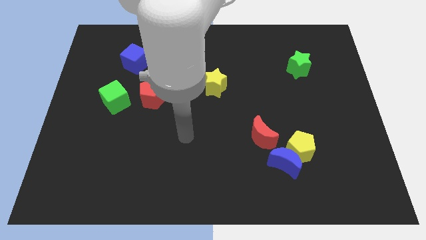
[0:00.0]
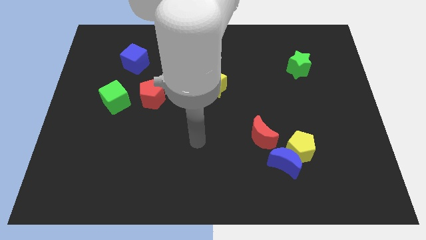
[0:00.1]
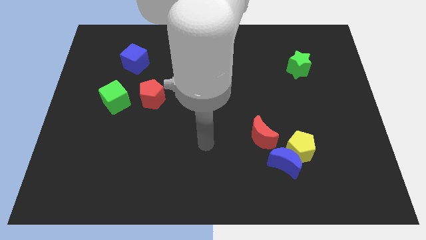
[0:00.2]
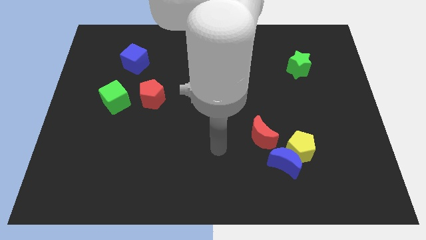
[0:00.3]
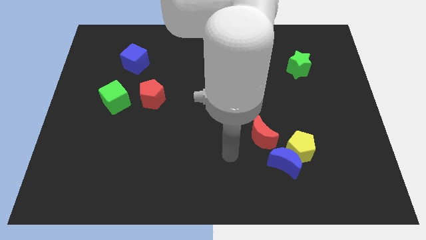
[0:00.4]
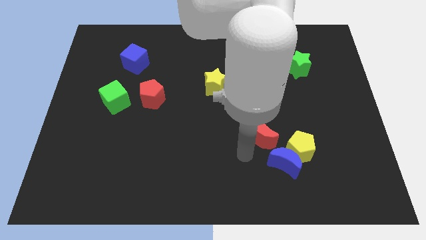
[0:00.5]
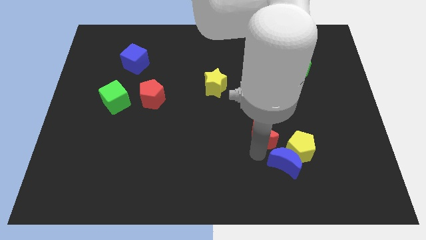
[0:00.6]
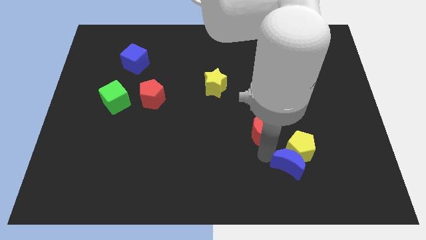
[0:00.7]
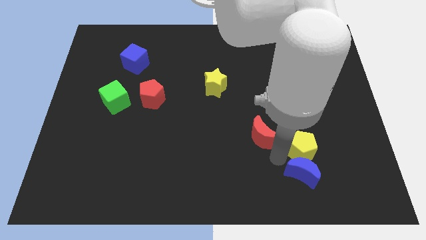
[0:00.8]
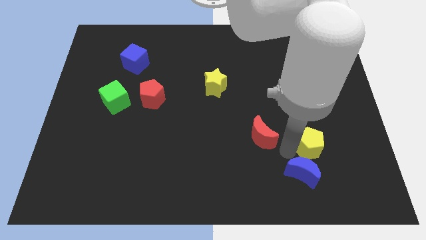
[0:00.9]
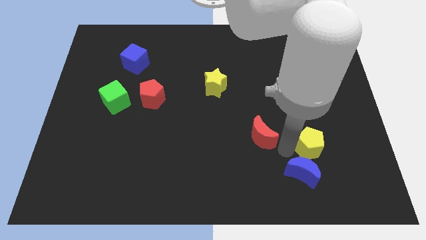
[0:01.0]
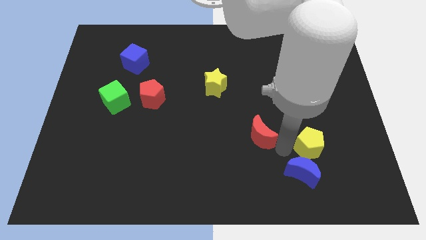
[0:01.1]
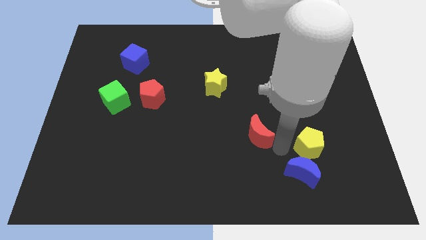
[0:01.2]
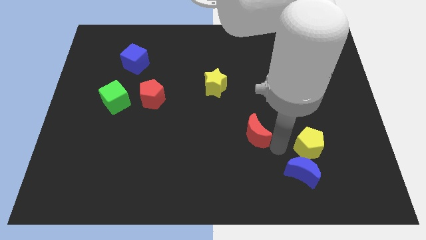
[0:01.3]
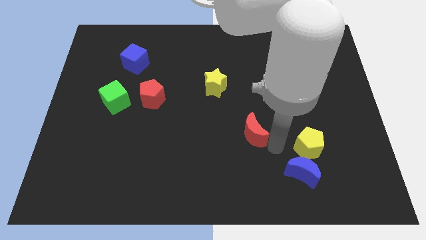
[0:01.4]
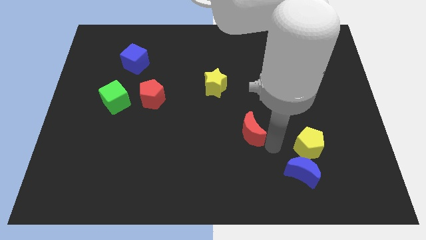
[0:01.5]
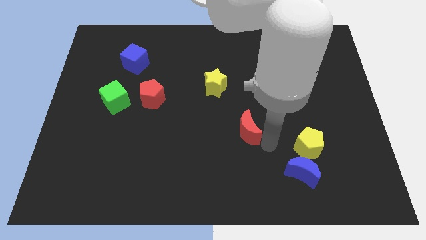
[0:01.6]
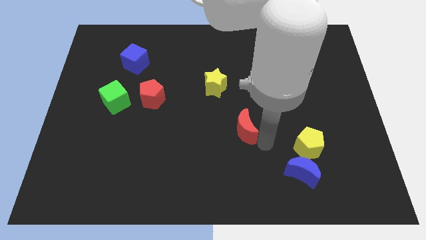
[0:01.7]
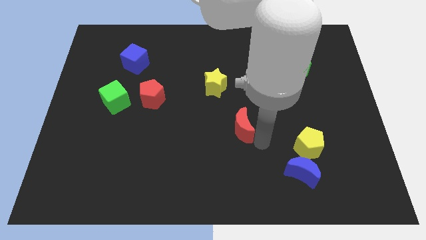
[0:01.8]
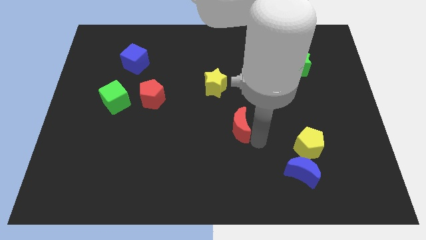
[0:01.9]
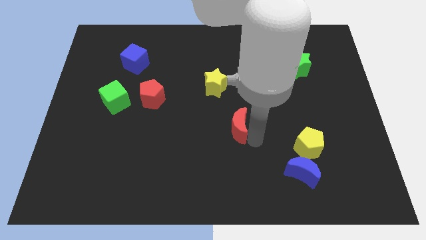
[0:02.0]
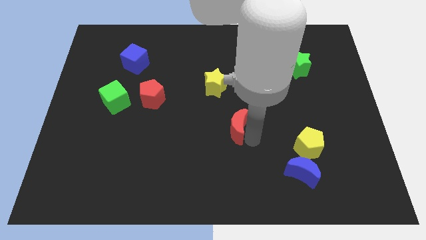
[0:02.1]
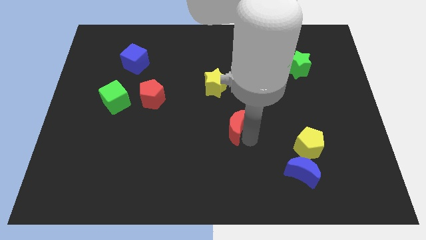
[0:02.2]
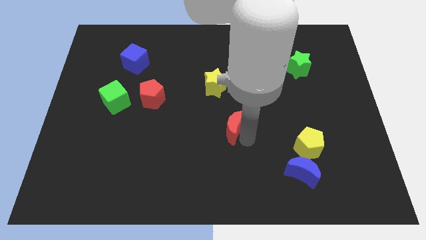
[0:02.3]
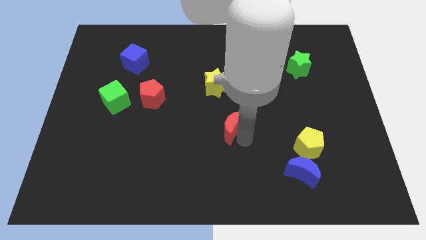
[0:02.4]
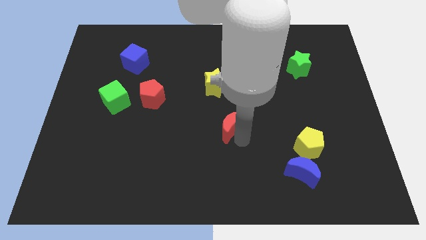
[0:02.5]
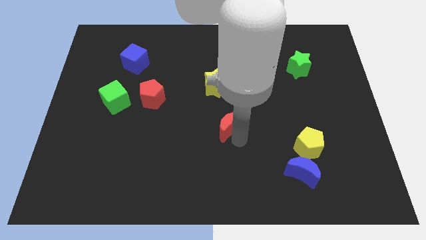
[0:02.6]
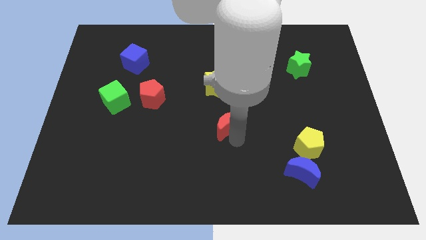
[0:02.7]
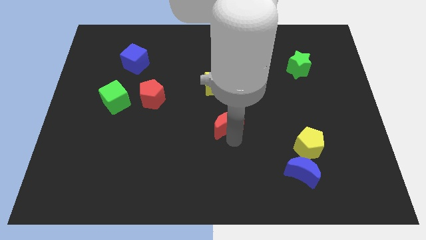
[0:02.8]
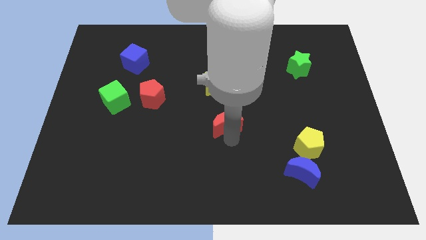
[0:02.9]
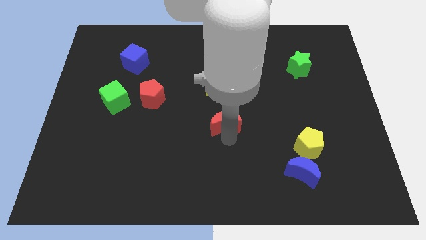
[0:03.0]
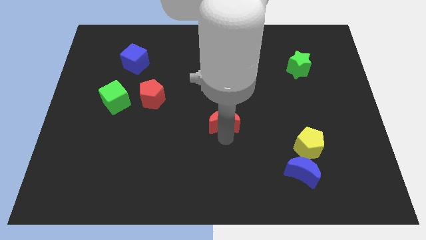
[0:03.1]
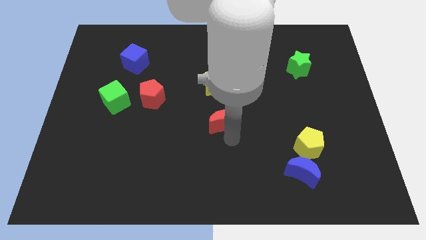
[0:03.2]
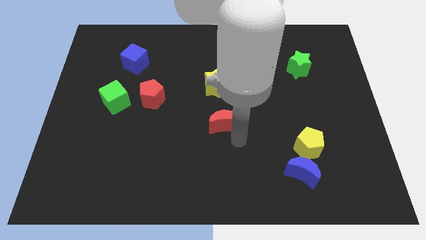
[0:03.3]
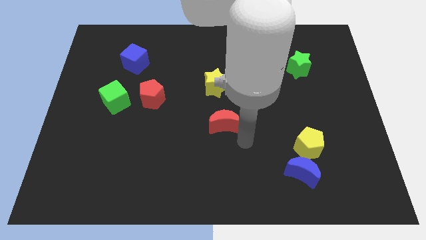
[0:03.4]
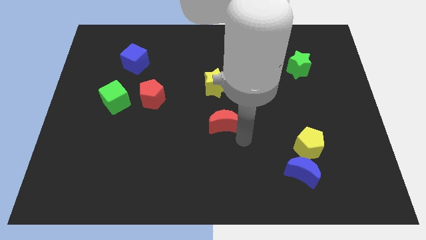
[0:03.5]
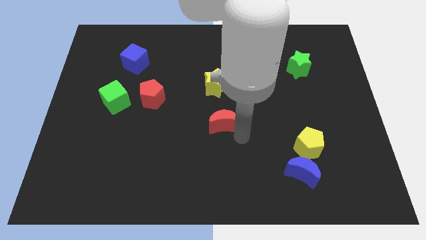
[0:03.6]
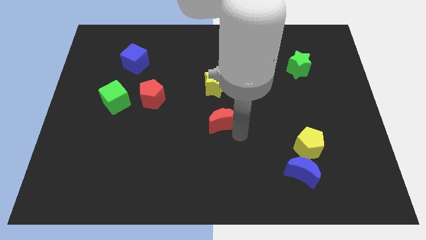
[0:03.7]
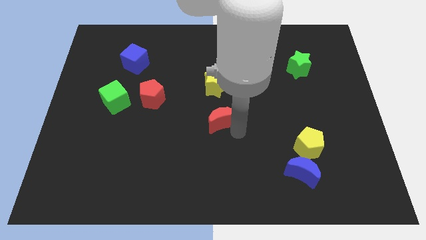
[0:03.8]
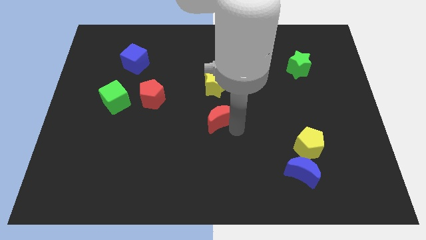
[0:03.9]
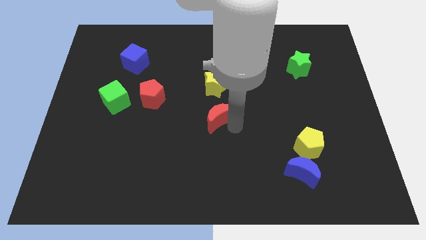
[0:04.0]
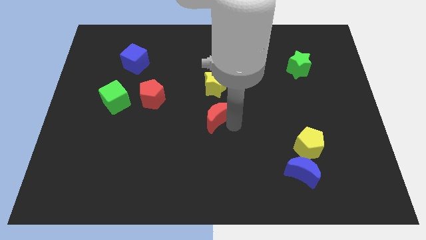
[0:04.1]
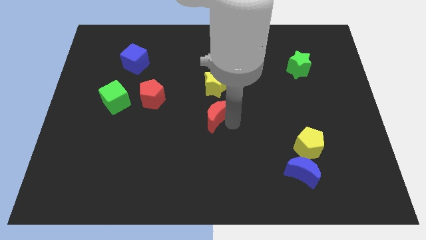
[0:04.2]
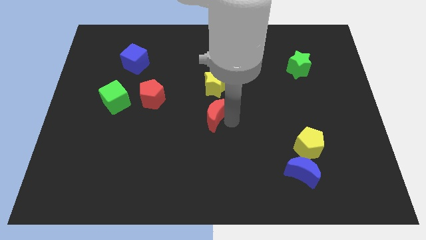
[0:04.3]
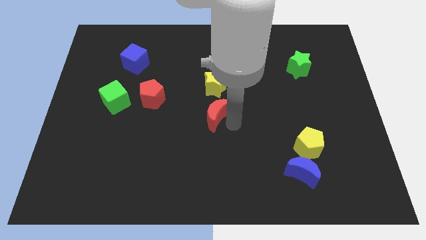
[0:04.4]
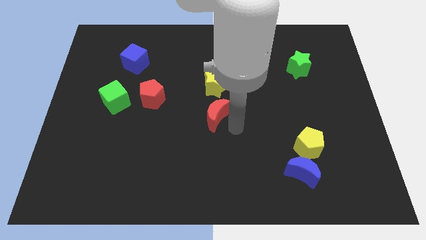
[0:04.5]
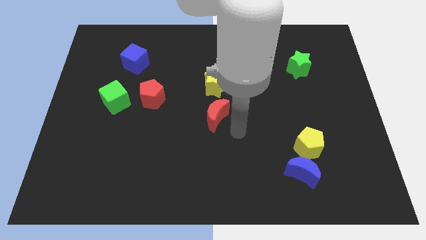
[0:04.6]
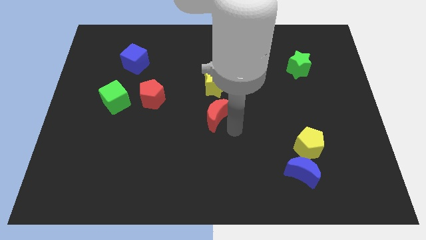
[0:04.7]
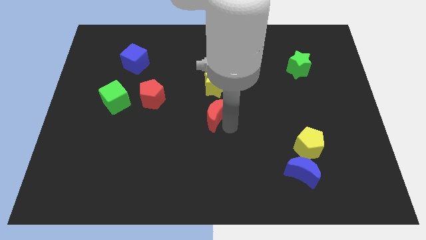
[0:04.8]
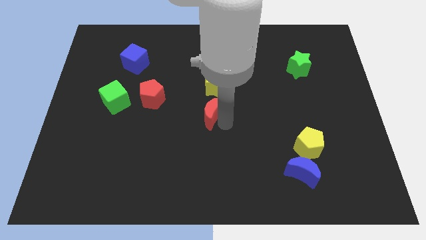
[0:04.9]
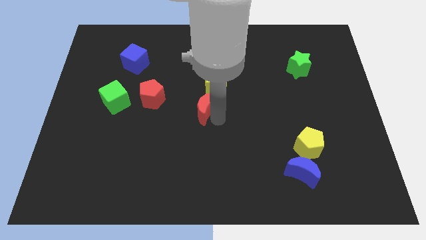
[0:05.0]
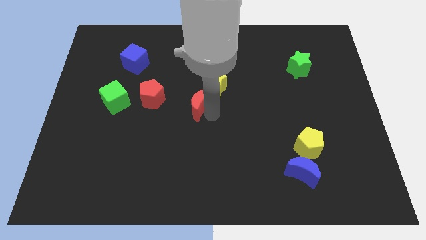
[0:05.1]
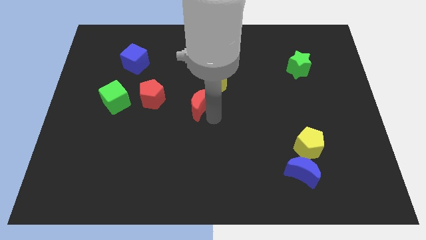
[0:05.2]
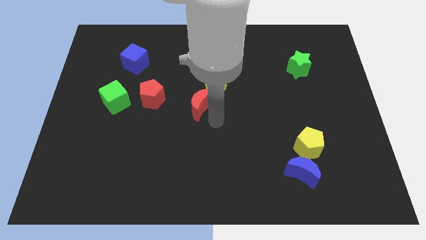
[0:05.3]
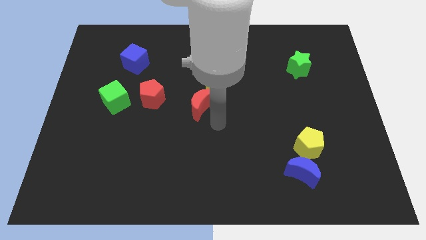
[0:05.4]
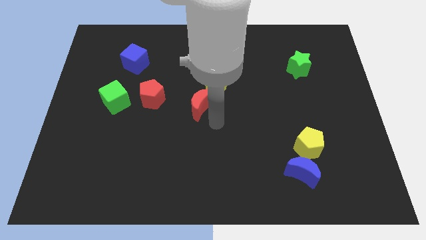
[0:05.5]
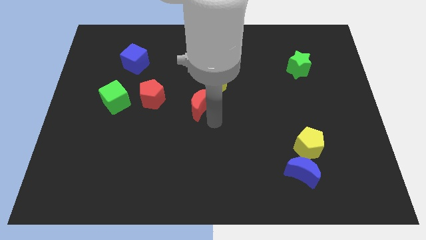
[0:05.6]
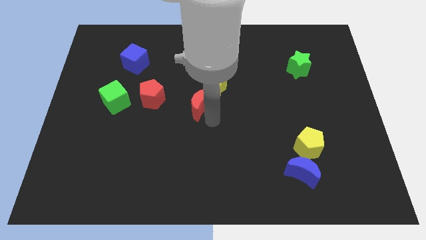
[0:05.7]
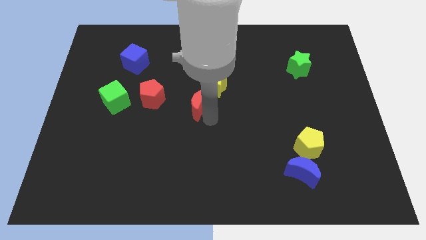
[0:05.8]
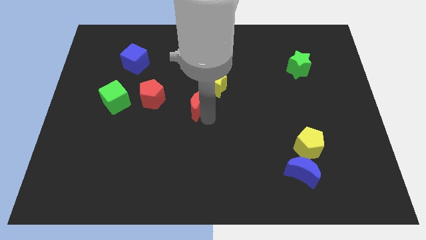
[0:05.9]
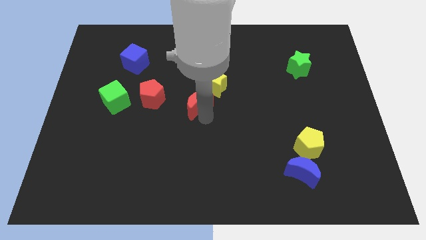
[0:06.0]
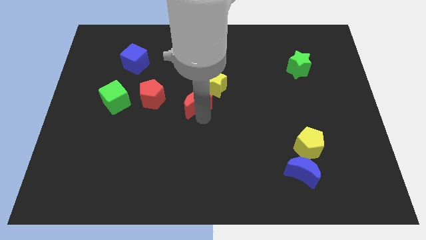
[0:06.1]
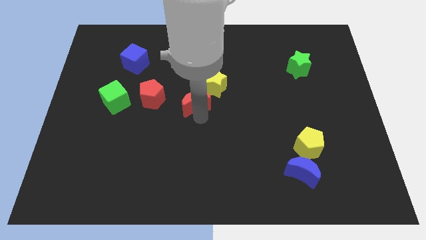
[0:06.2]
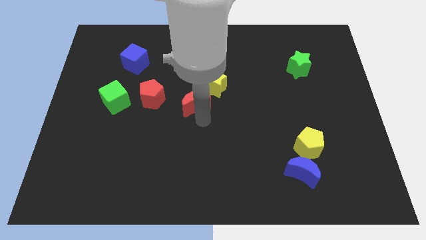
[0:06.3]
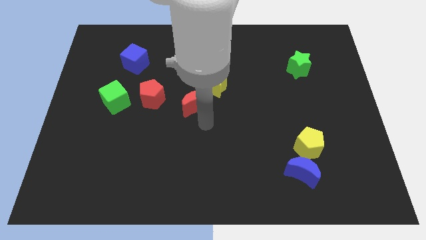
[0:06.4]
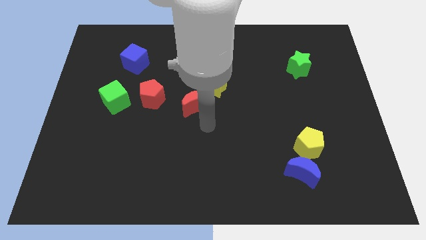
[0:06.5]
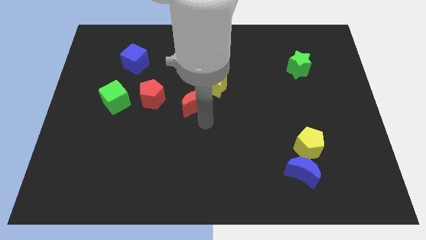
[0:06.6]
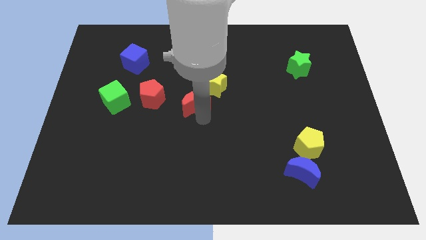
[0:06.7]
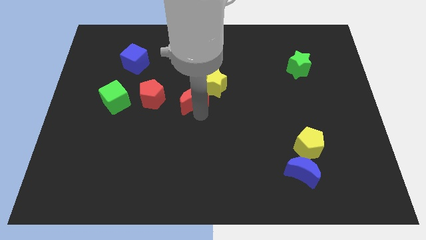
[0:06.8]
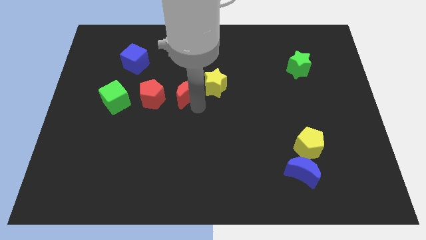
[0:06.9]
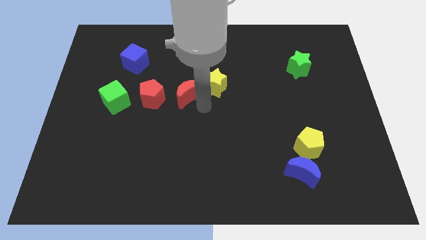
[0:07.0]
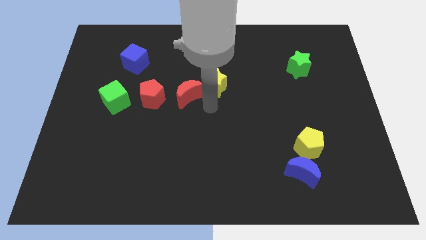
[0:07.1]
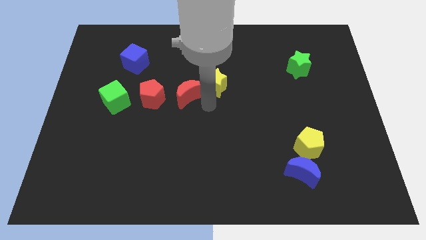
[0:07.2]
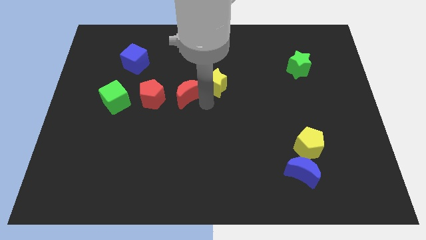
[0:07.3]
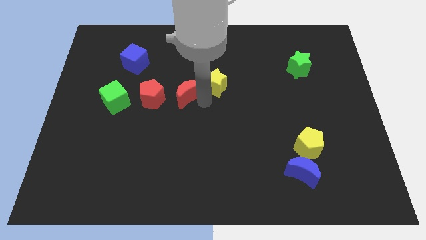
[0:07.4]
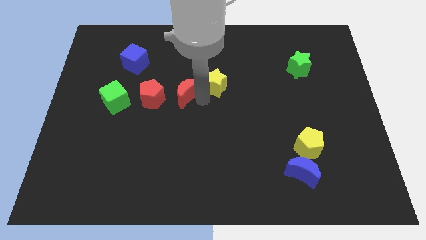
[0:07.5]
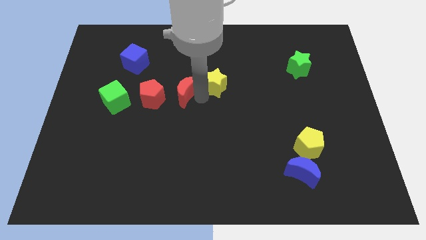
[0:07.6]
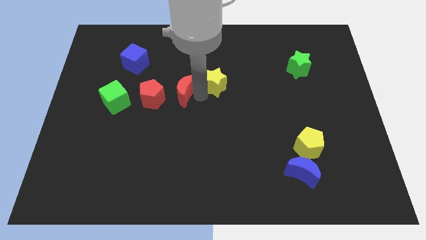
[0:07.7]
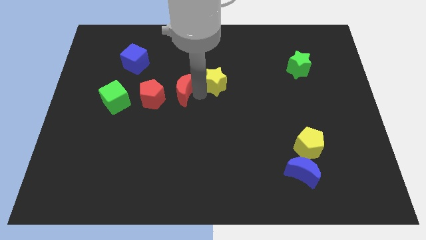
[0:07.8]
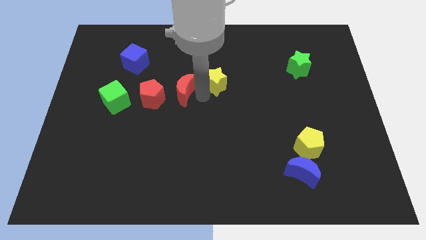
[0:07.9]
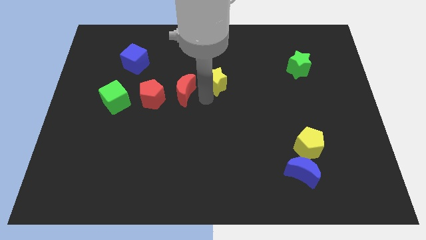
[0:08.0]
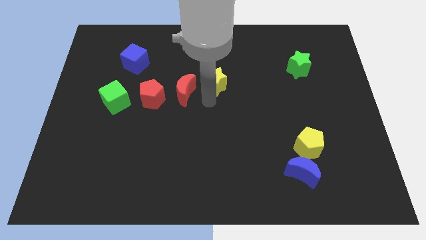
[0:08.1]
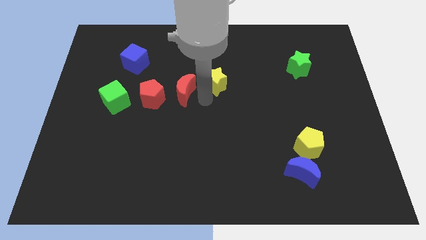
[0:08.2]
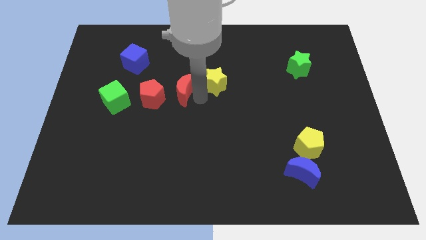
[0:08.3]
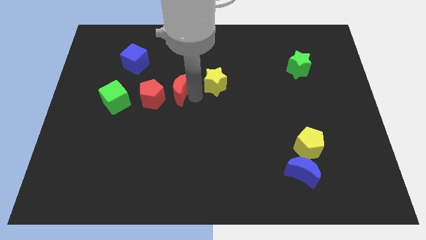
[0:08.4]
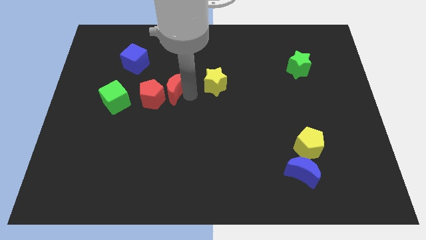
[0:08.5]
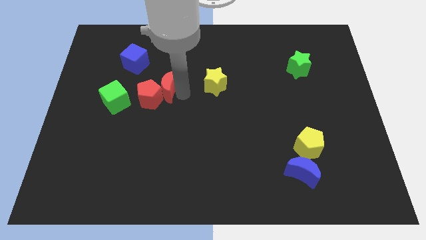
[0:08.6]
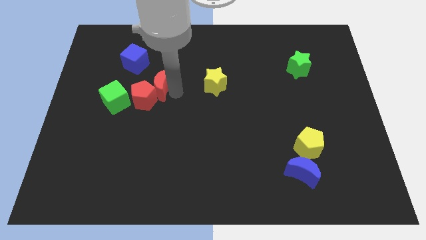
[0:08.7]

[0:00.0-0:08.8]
put the red moon to the bottom right side of the blue cube
